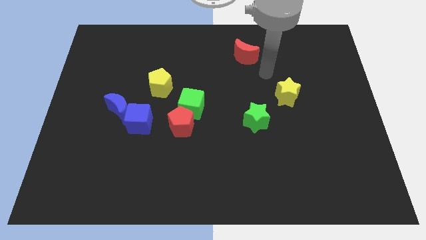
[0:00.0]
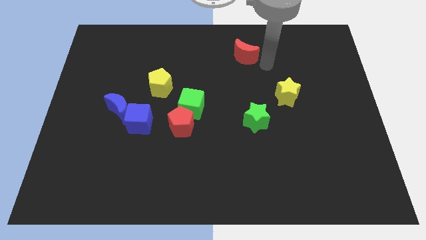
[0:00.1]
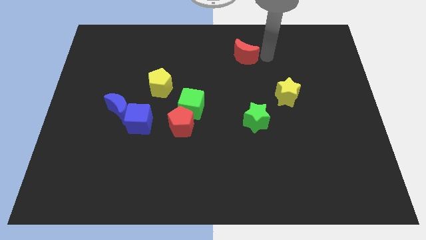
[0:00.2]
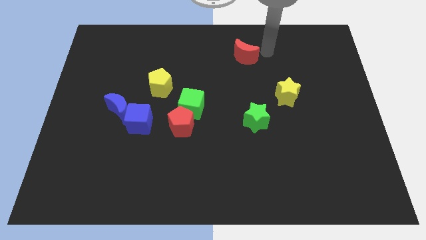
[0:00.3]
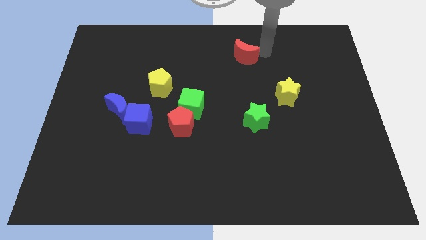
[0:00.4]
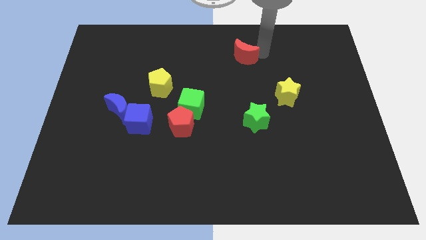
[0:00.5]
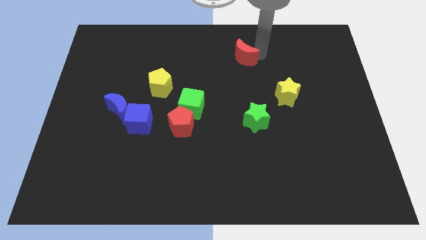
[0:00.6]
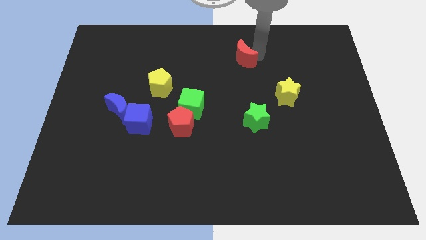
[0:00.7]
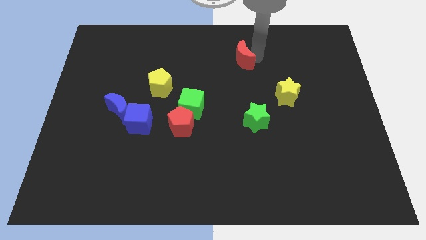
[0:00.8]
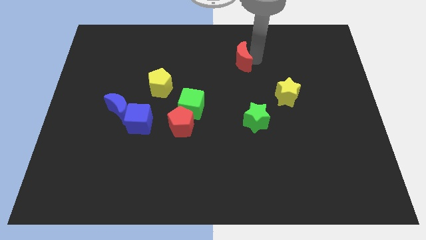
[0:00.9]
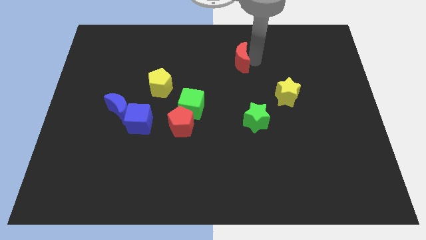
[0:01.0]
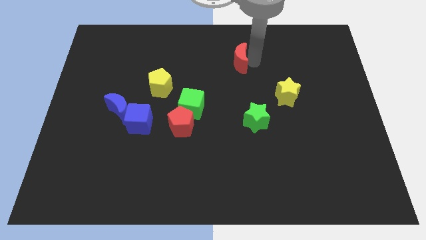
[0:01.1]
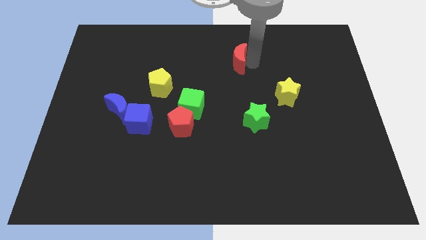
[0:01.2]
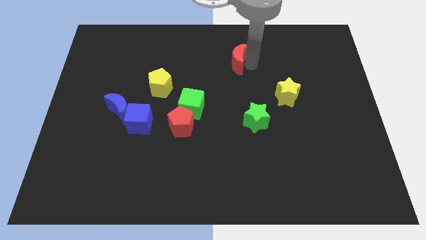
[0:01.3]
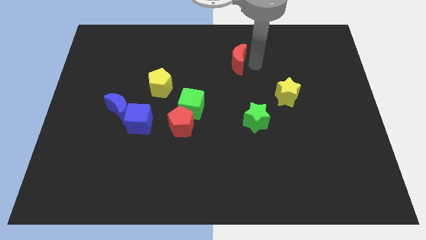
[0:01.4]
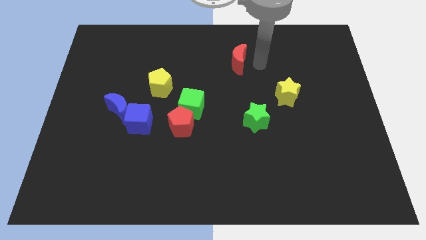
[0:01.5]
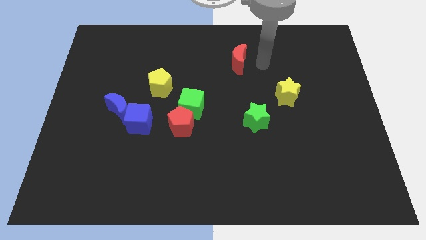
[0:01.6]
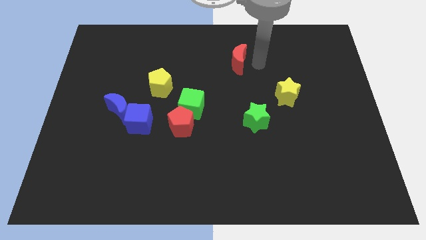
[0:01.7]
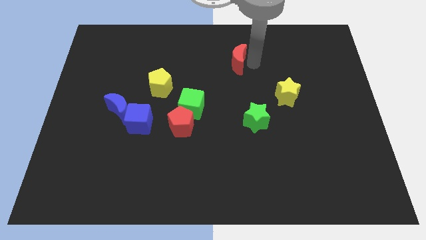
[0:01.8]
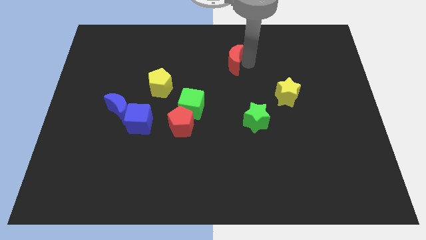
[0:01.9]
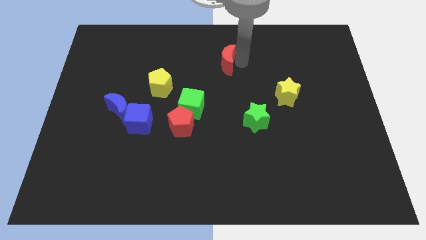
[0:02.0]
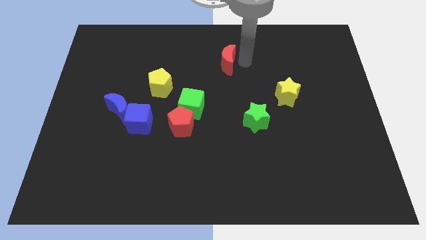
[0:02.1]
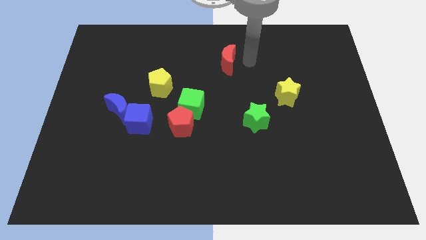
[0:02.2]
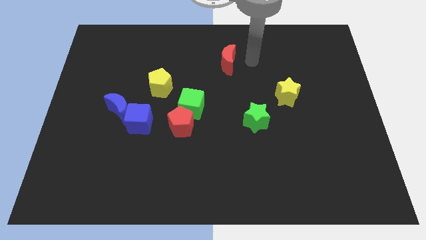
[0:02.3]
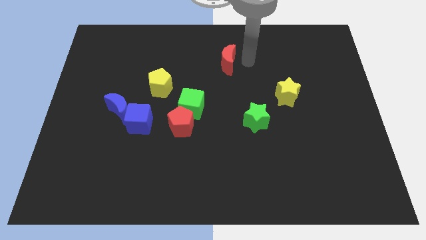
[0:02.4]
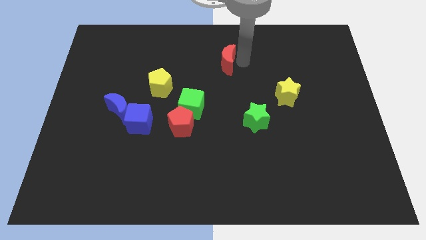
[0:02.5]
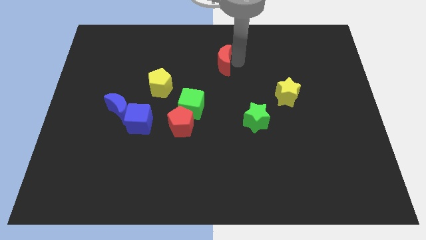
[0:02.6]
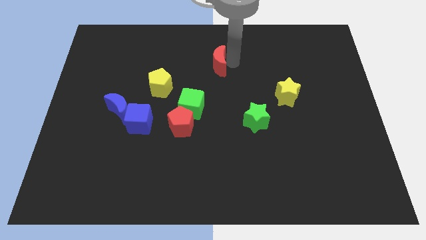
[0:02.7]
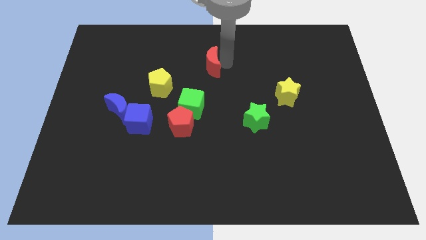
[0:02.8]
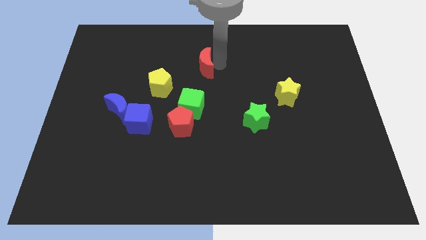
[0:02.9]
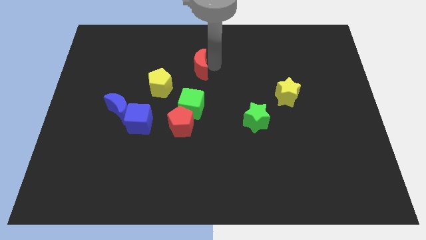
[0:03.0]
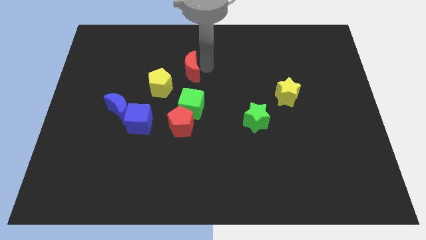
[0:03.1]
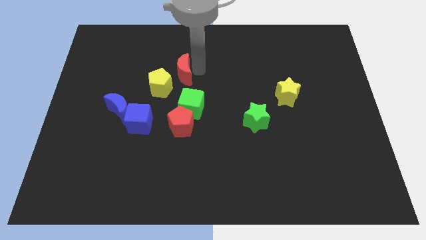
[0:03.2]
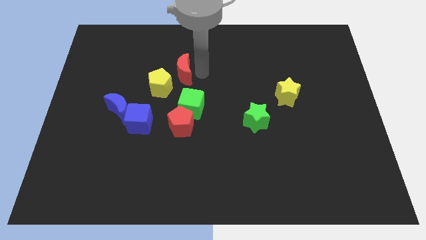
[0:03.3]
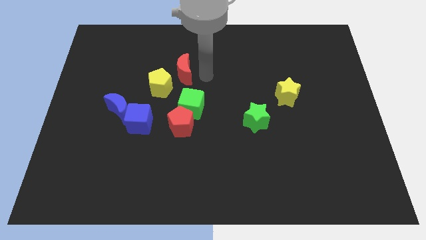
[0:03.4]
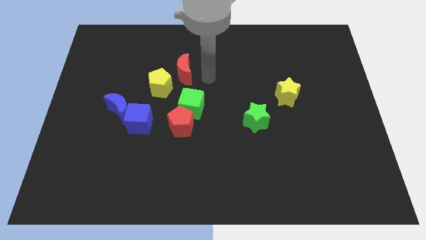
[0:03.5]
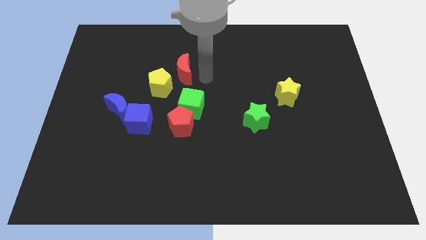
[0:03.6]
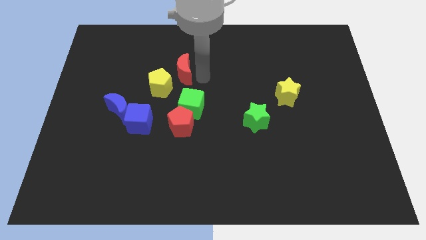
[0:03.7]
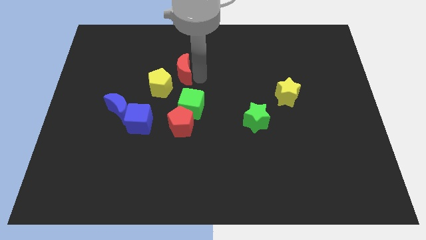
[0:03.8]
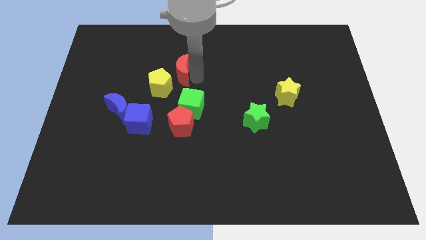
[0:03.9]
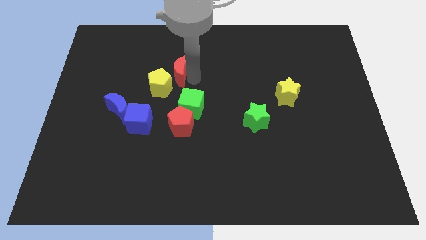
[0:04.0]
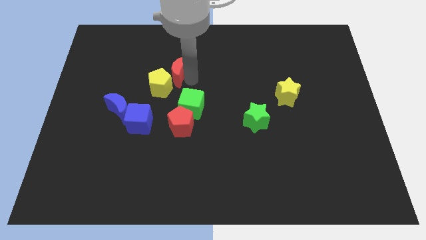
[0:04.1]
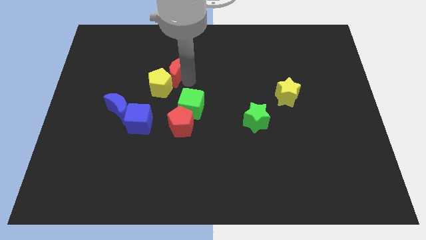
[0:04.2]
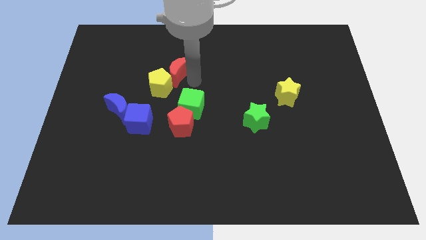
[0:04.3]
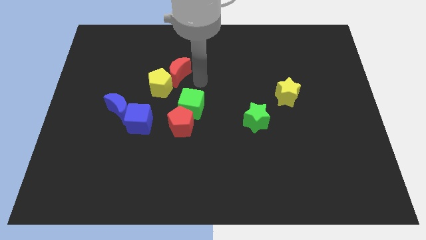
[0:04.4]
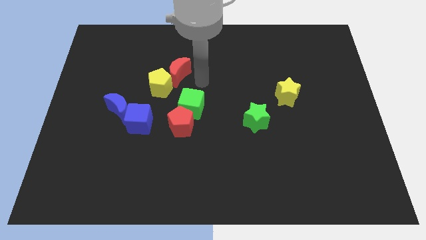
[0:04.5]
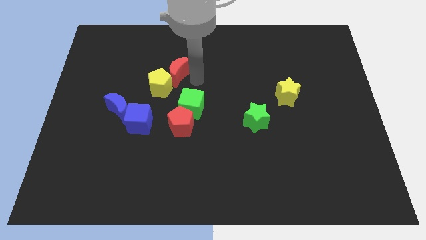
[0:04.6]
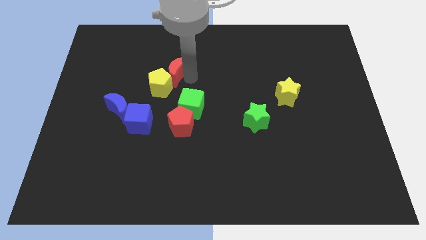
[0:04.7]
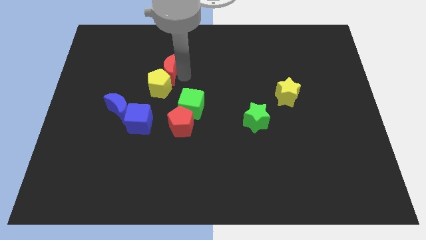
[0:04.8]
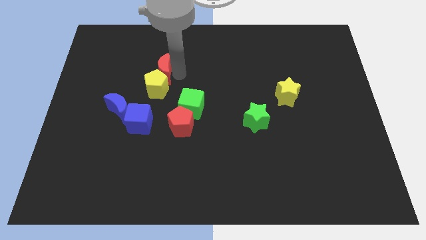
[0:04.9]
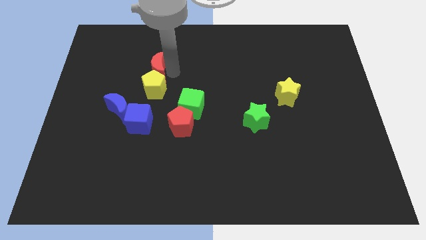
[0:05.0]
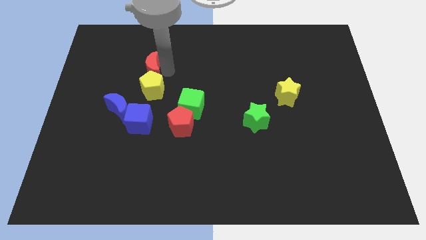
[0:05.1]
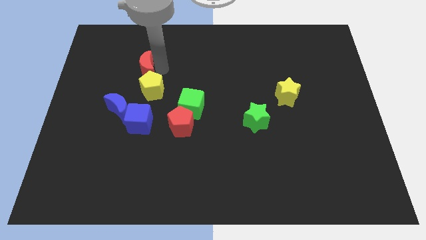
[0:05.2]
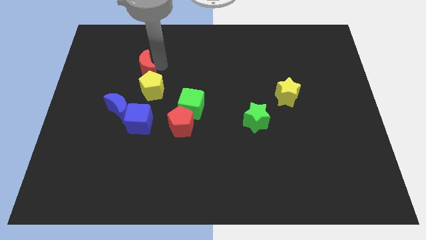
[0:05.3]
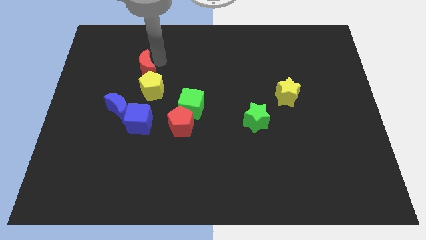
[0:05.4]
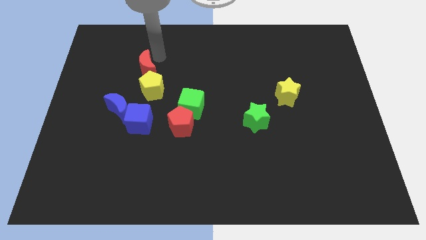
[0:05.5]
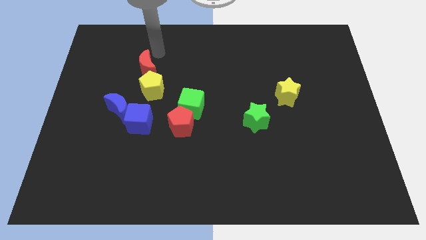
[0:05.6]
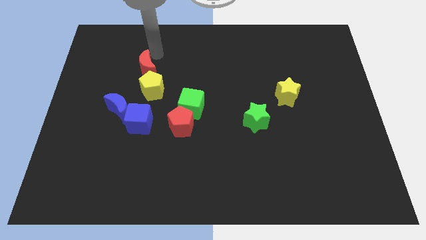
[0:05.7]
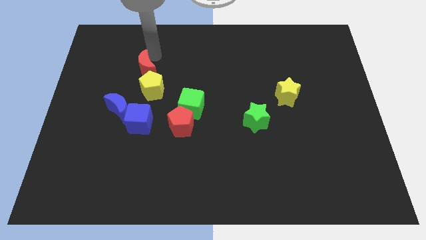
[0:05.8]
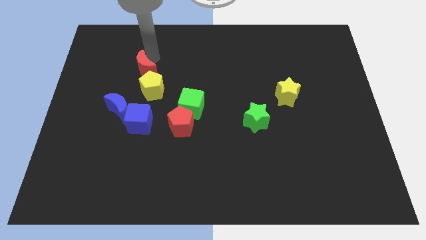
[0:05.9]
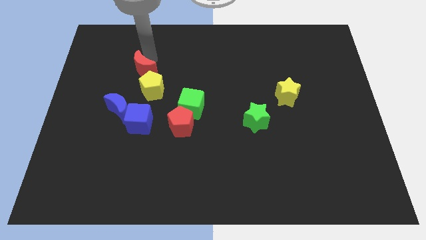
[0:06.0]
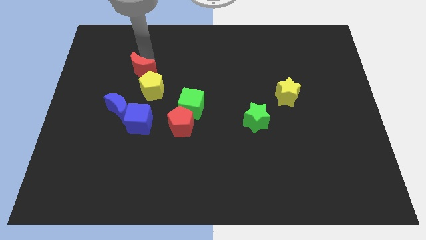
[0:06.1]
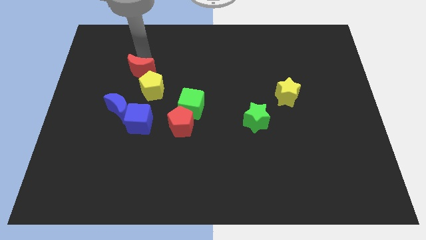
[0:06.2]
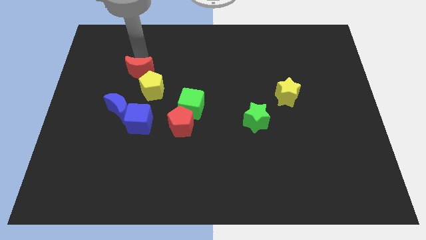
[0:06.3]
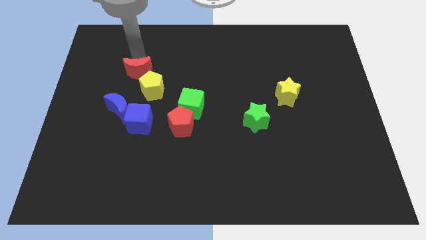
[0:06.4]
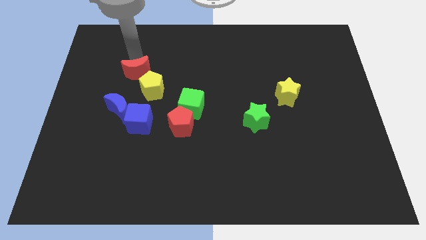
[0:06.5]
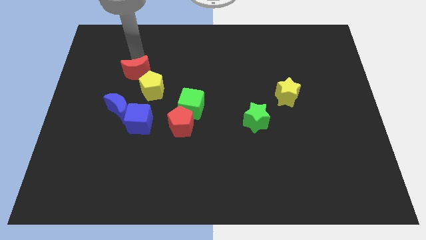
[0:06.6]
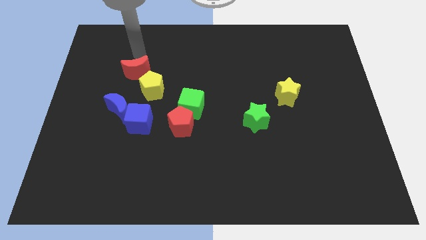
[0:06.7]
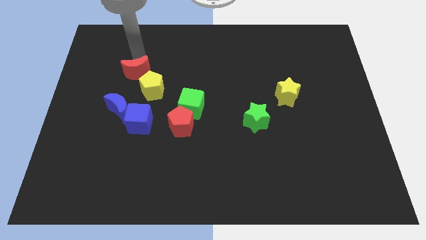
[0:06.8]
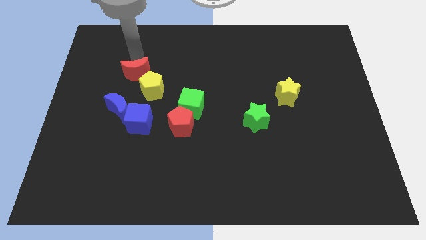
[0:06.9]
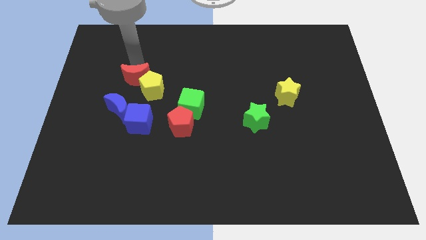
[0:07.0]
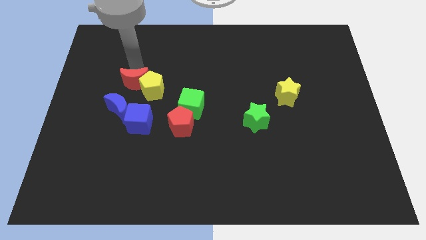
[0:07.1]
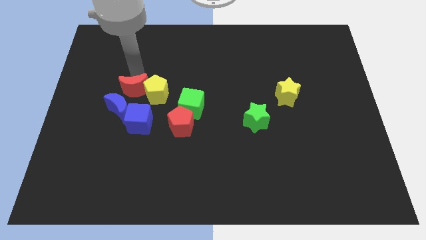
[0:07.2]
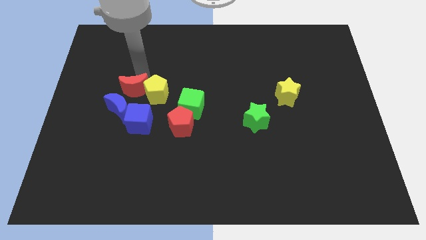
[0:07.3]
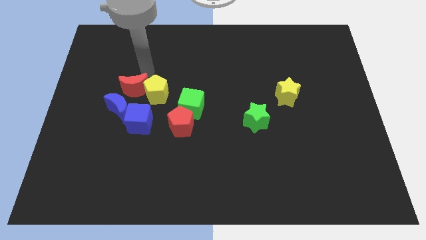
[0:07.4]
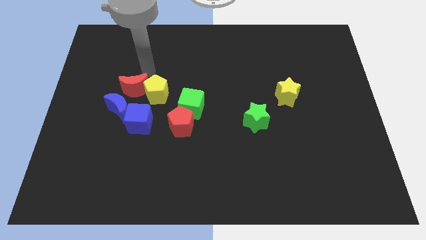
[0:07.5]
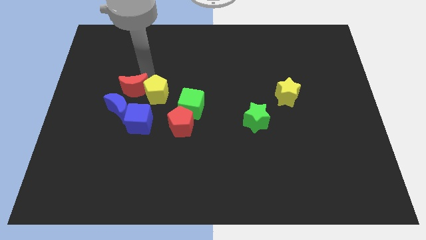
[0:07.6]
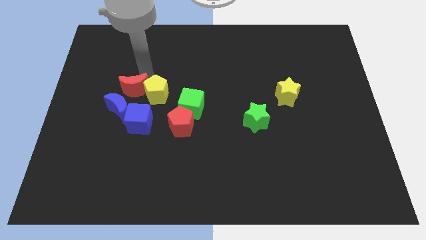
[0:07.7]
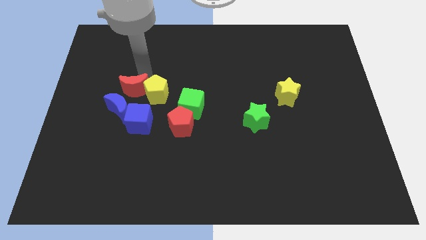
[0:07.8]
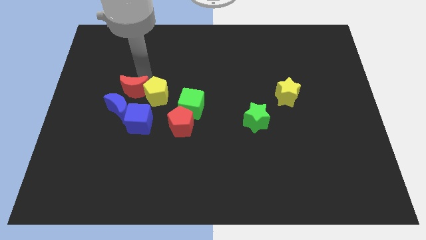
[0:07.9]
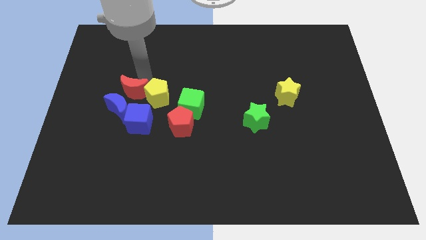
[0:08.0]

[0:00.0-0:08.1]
push the red moon to the blue moon
